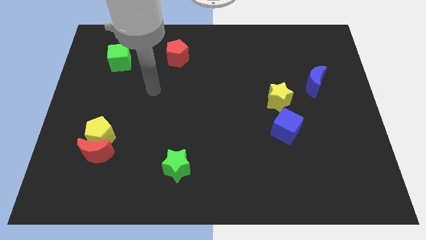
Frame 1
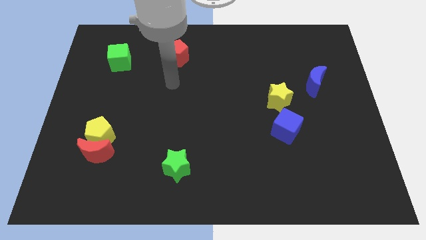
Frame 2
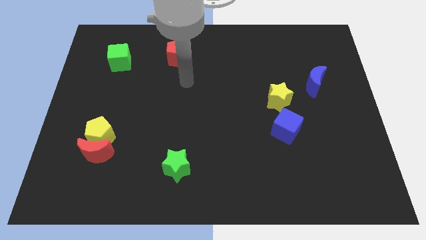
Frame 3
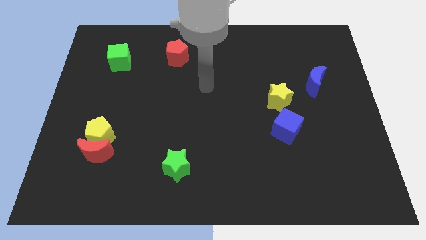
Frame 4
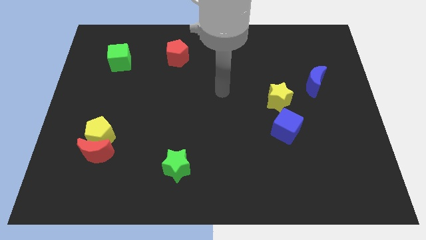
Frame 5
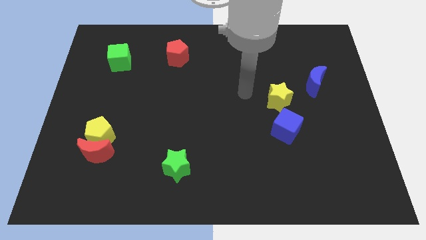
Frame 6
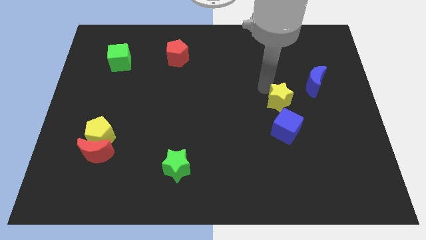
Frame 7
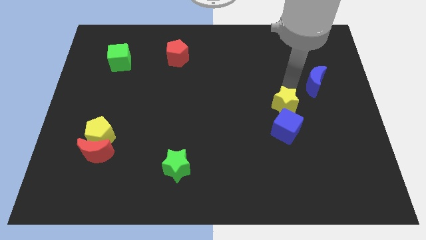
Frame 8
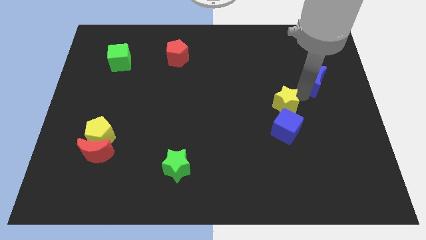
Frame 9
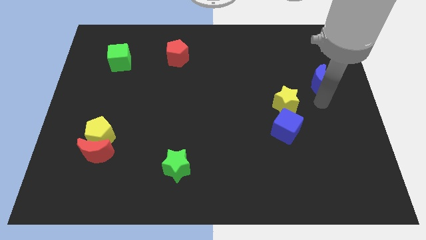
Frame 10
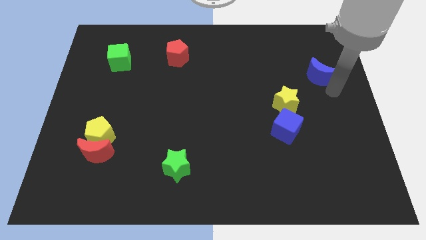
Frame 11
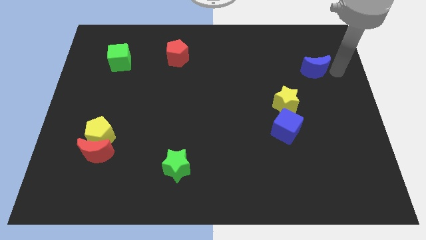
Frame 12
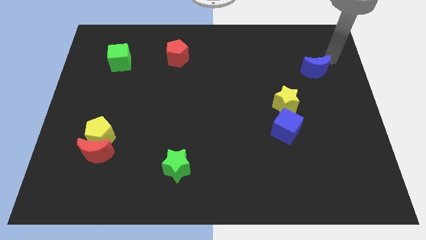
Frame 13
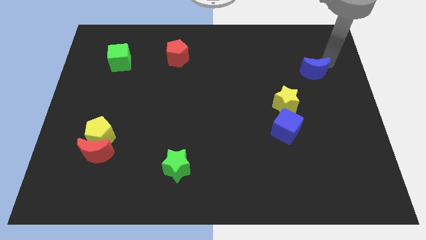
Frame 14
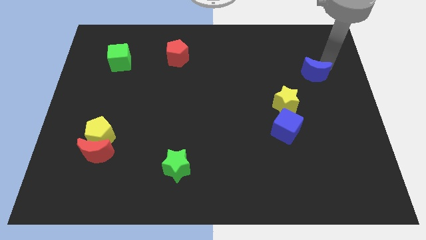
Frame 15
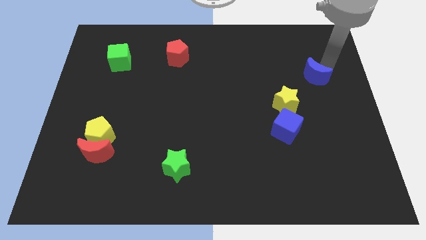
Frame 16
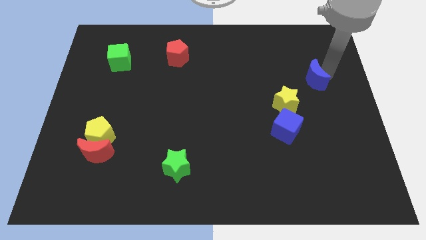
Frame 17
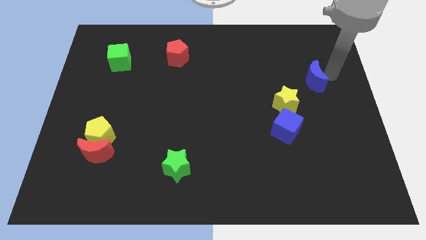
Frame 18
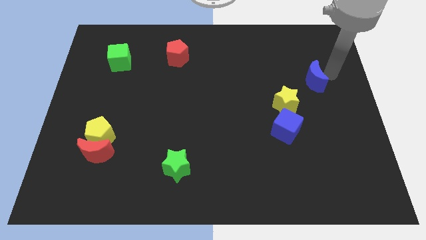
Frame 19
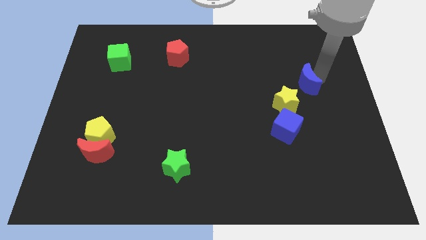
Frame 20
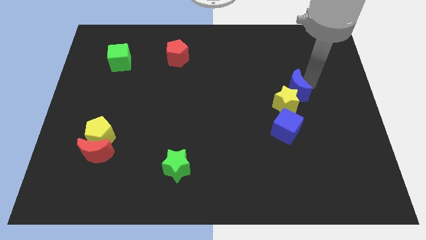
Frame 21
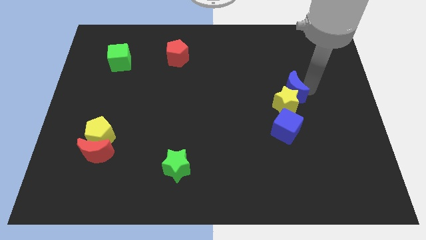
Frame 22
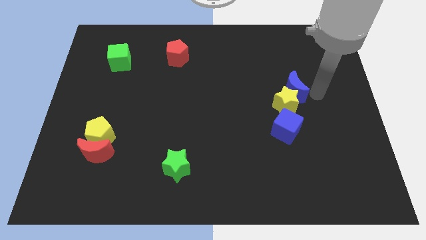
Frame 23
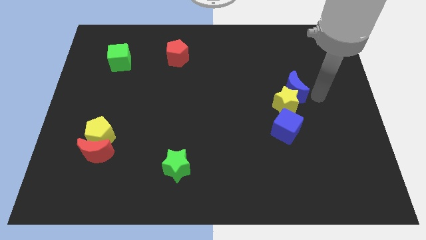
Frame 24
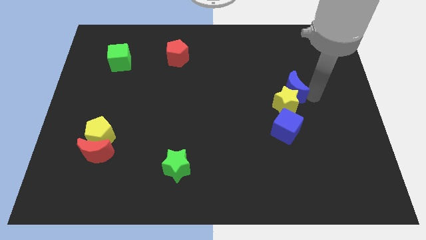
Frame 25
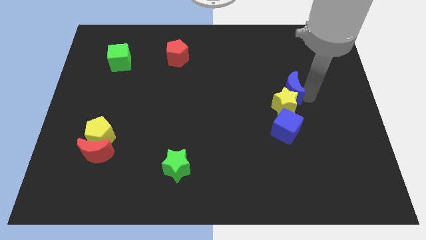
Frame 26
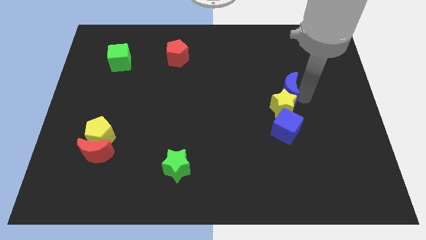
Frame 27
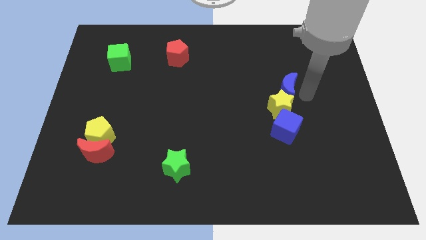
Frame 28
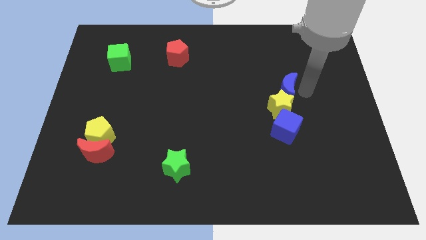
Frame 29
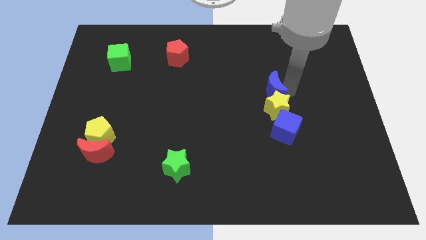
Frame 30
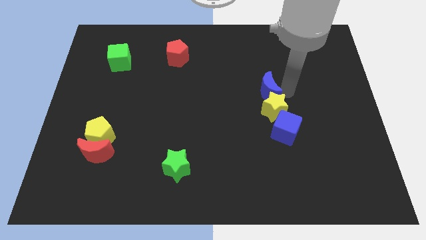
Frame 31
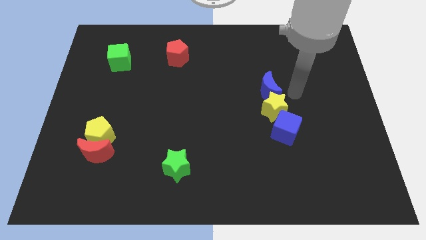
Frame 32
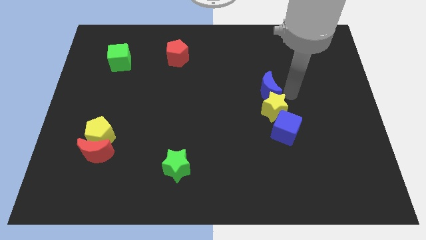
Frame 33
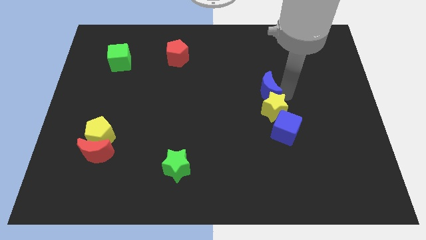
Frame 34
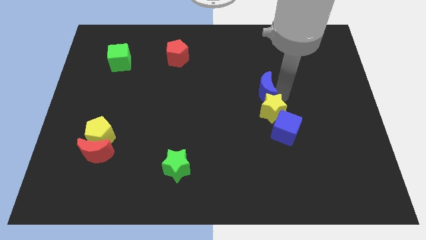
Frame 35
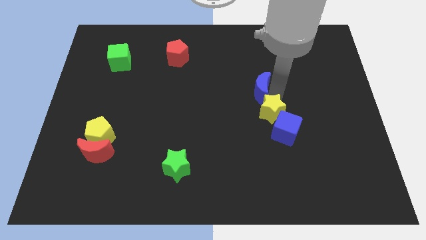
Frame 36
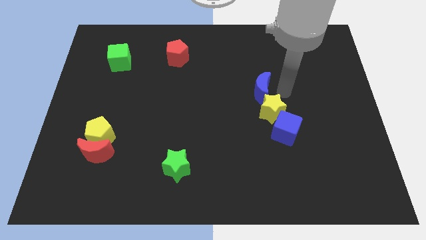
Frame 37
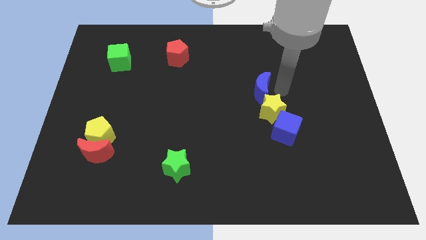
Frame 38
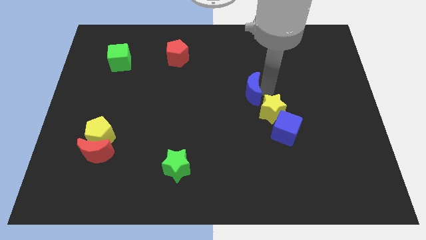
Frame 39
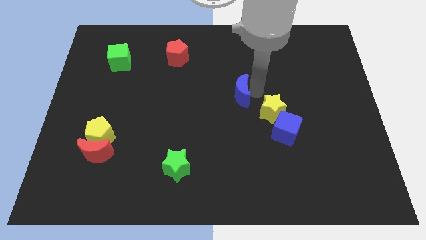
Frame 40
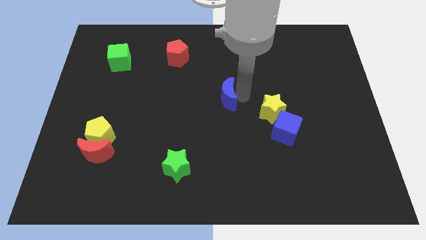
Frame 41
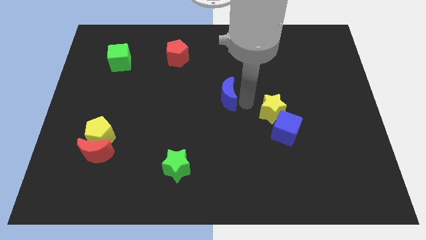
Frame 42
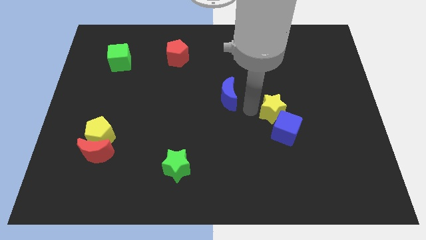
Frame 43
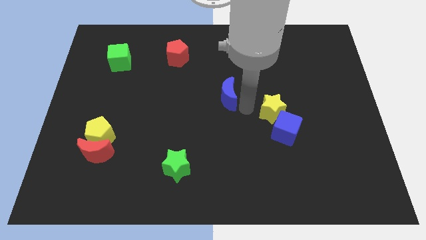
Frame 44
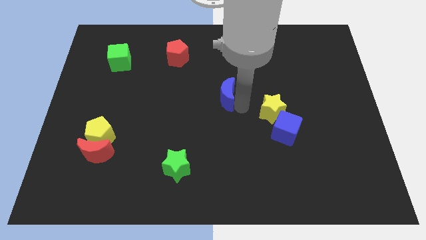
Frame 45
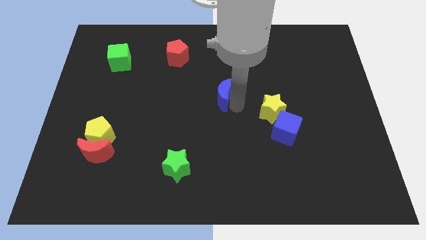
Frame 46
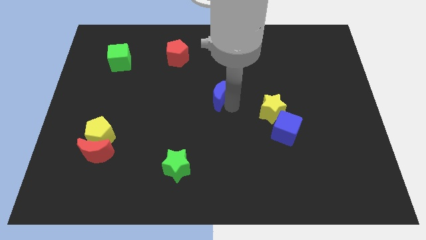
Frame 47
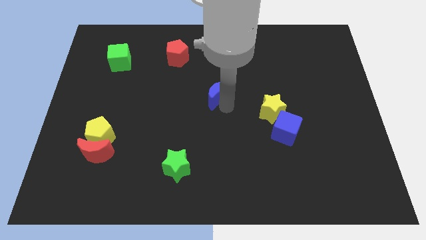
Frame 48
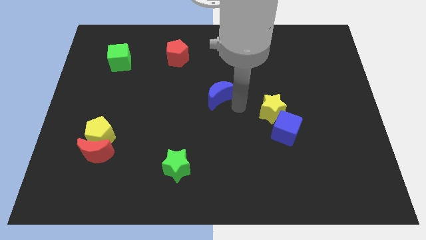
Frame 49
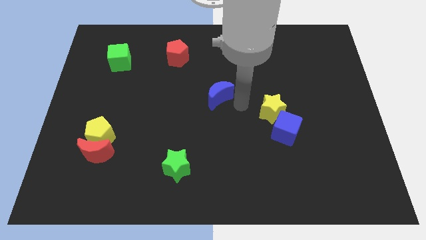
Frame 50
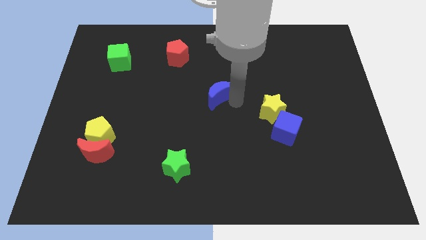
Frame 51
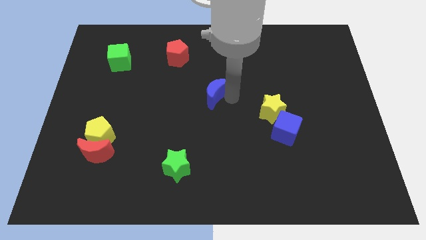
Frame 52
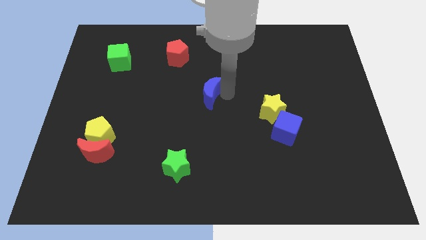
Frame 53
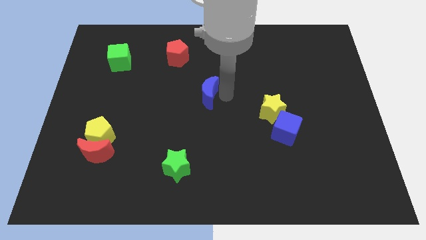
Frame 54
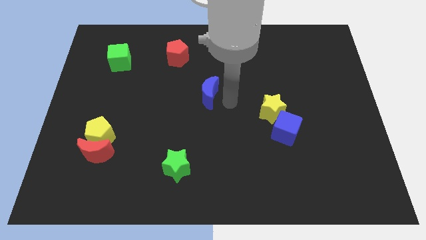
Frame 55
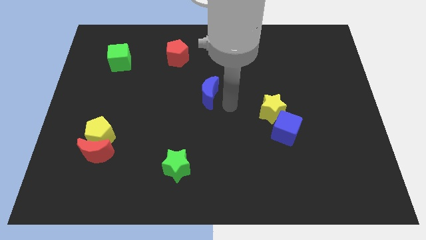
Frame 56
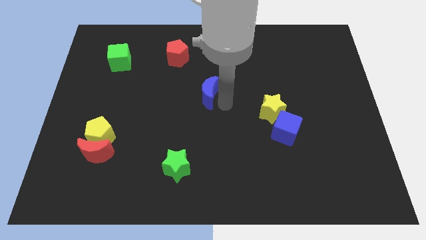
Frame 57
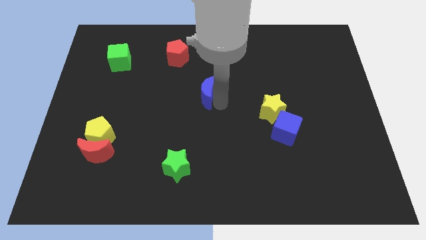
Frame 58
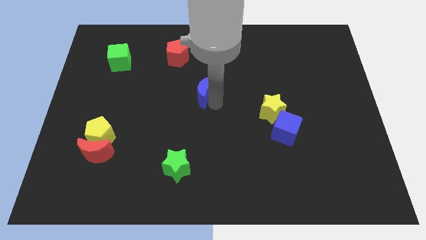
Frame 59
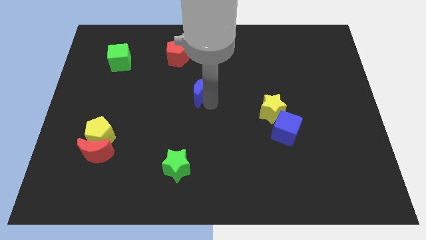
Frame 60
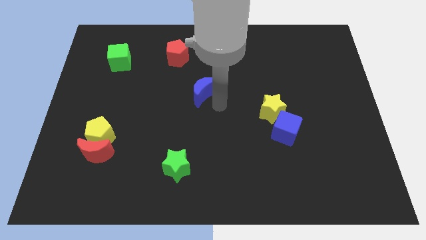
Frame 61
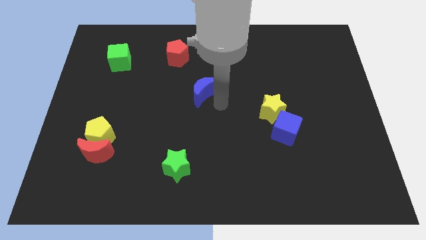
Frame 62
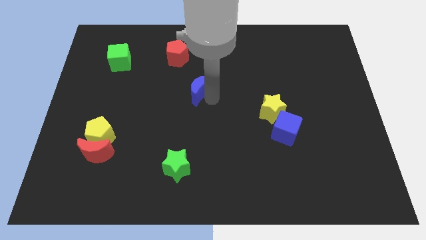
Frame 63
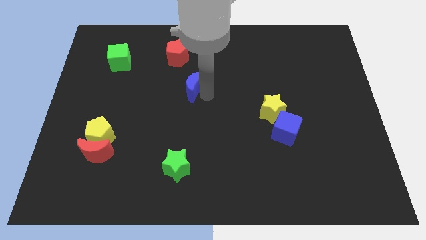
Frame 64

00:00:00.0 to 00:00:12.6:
put the blue moon below the red pentagon
